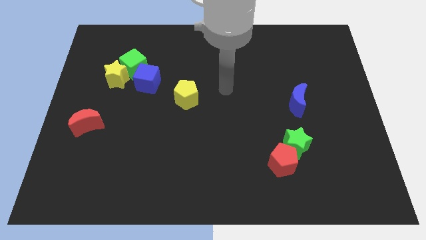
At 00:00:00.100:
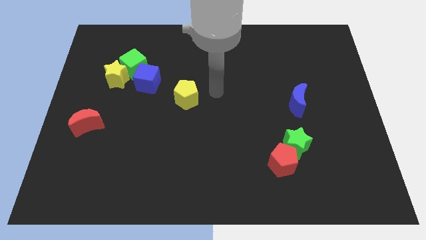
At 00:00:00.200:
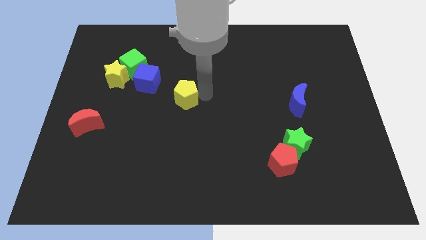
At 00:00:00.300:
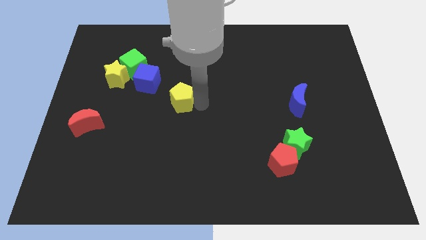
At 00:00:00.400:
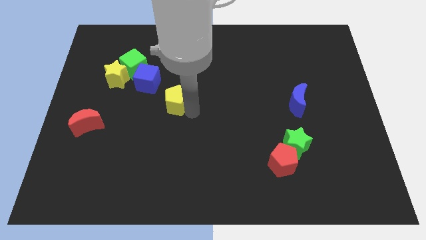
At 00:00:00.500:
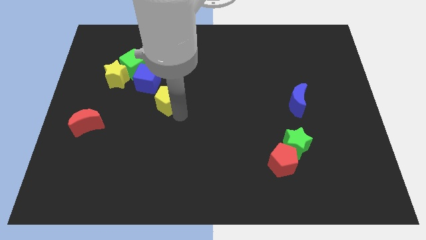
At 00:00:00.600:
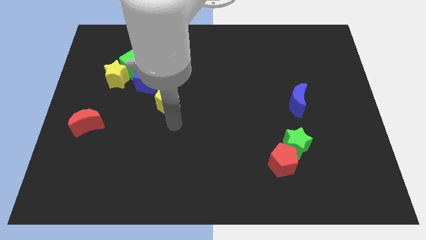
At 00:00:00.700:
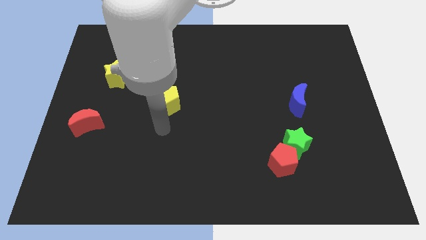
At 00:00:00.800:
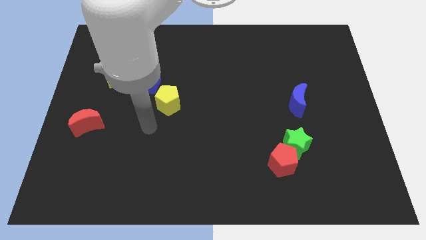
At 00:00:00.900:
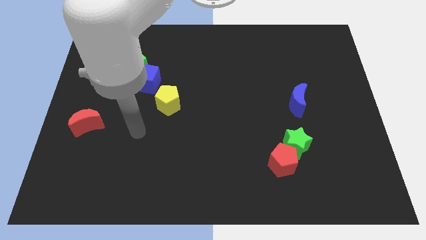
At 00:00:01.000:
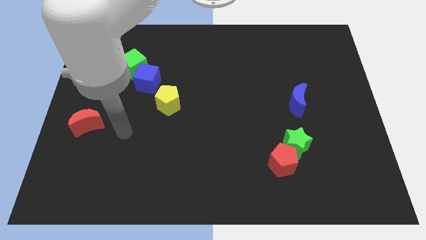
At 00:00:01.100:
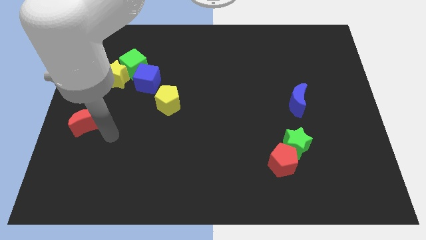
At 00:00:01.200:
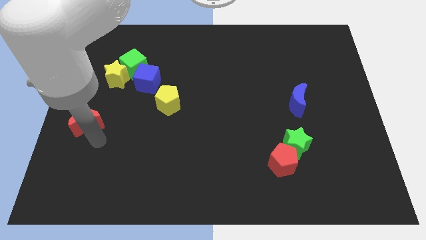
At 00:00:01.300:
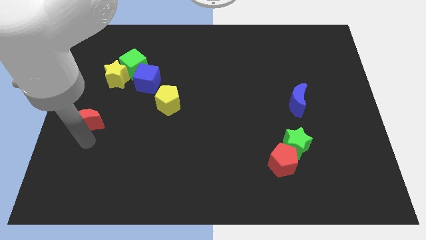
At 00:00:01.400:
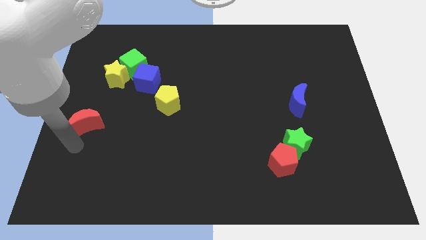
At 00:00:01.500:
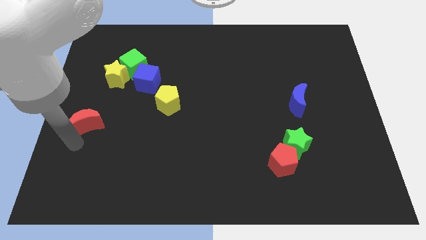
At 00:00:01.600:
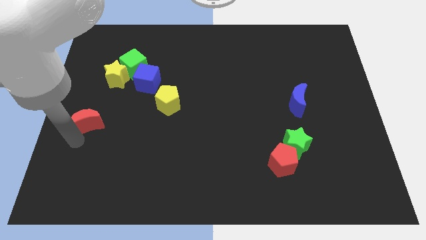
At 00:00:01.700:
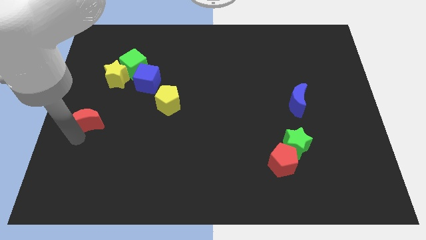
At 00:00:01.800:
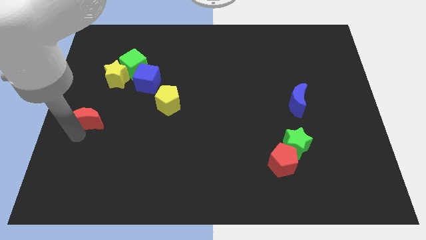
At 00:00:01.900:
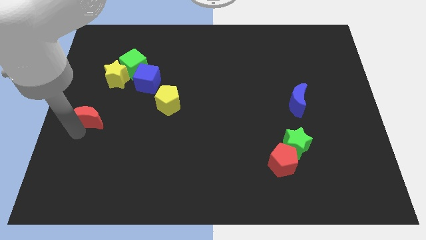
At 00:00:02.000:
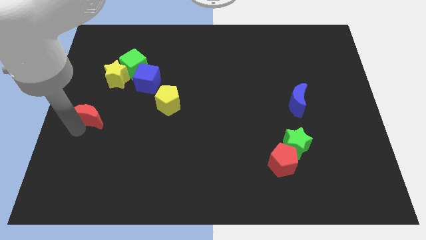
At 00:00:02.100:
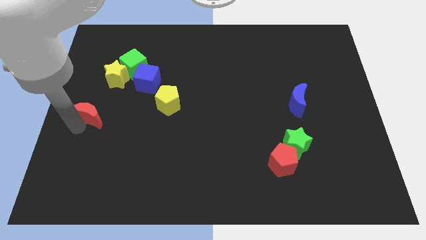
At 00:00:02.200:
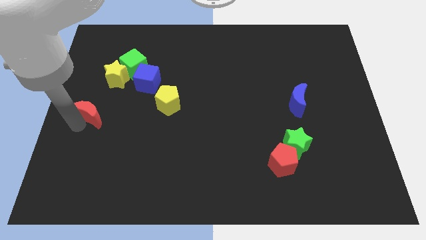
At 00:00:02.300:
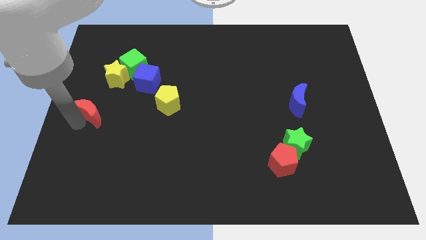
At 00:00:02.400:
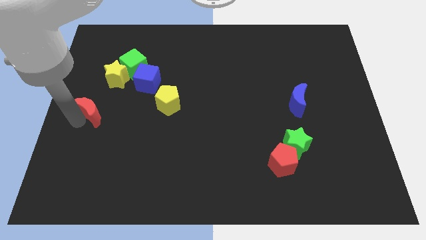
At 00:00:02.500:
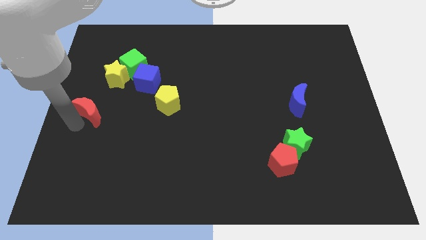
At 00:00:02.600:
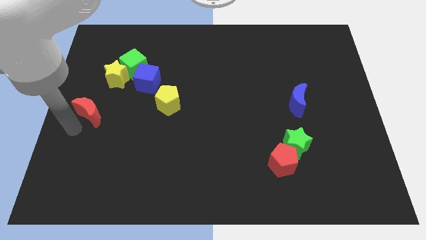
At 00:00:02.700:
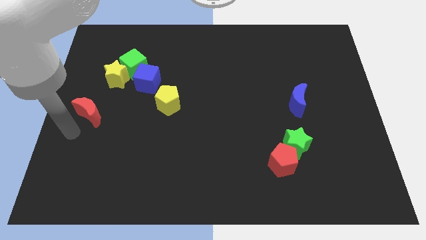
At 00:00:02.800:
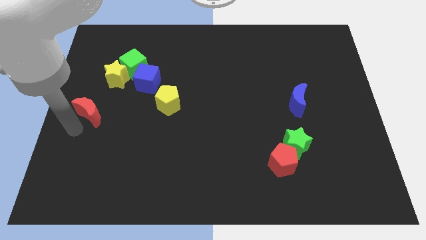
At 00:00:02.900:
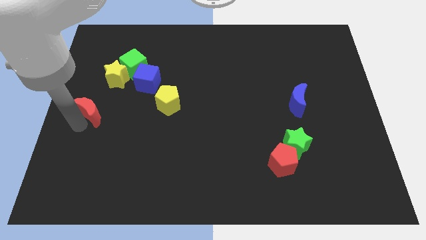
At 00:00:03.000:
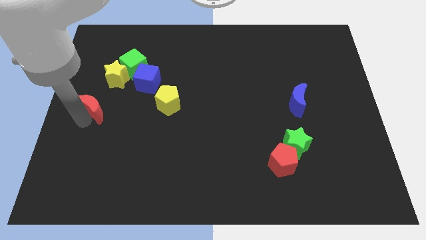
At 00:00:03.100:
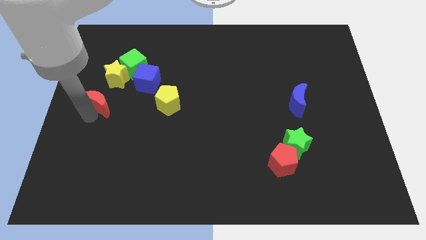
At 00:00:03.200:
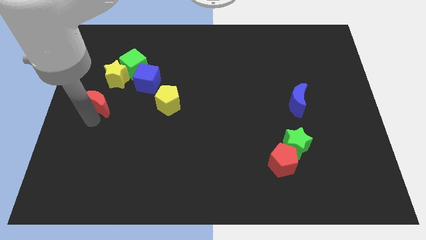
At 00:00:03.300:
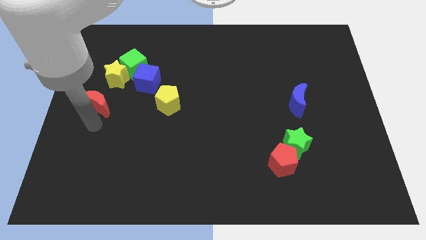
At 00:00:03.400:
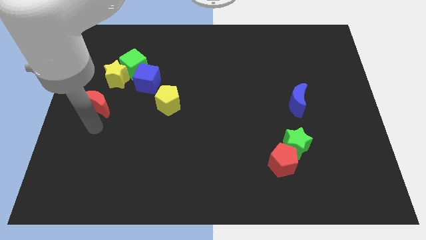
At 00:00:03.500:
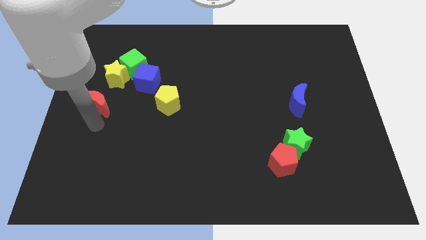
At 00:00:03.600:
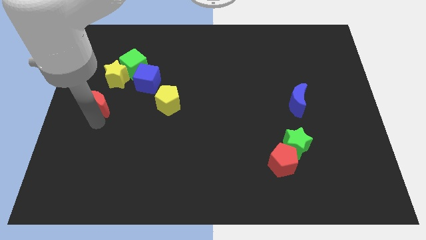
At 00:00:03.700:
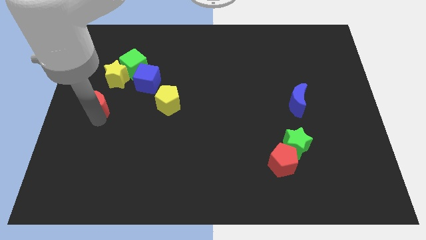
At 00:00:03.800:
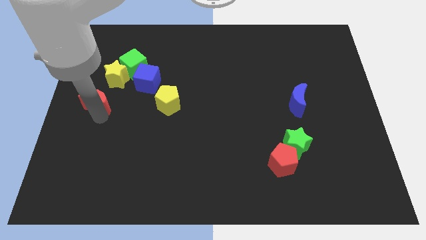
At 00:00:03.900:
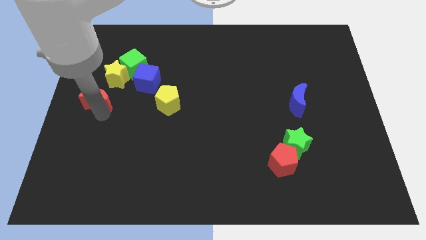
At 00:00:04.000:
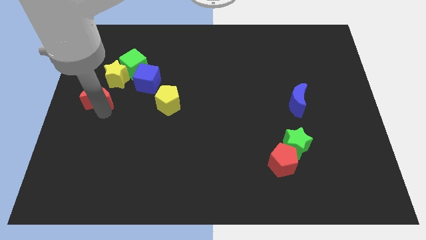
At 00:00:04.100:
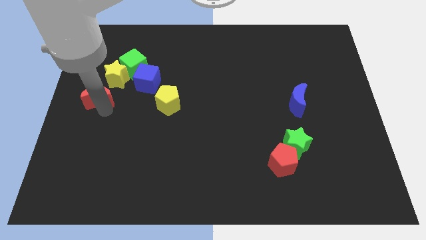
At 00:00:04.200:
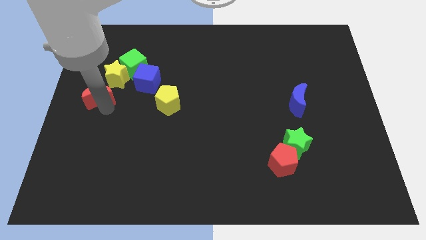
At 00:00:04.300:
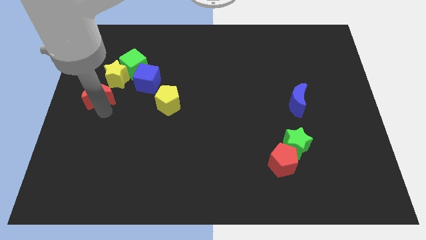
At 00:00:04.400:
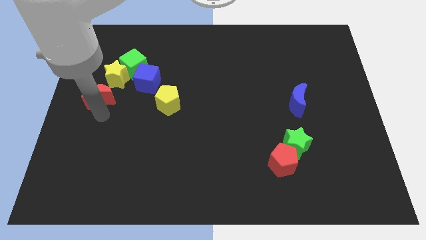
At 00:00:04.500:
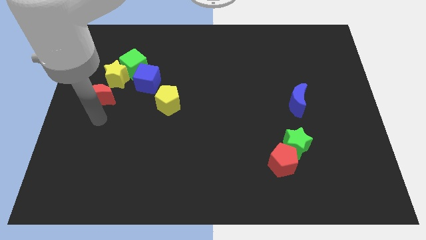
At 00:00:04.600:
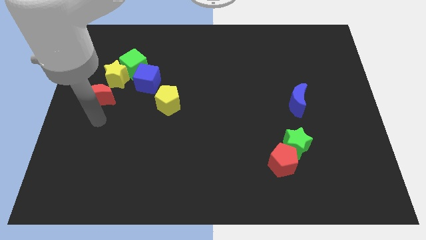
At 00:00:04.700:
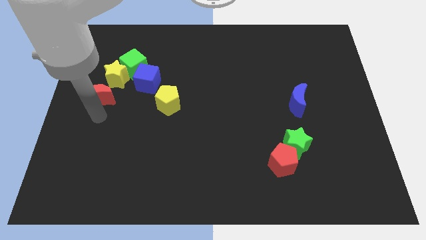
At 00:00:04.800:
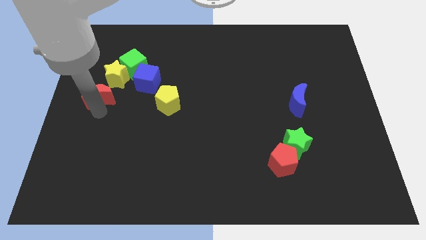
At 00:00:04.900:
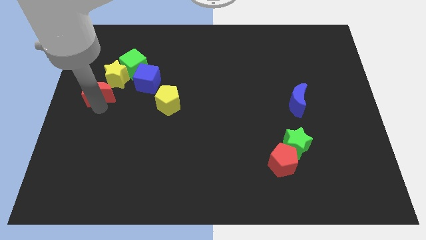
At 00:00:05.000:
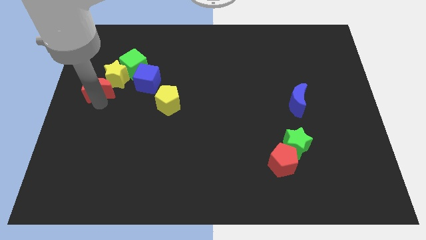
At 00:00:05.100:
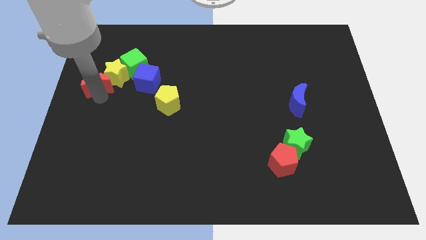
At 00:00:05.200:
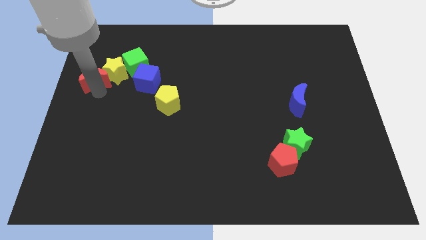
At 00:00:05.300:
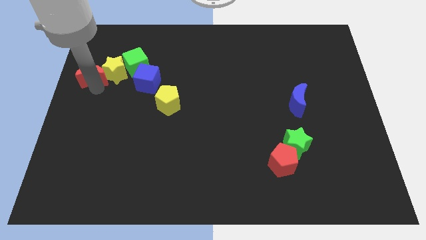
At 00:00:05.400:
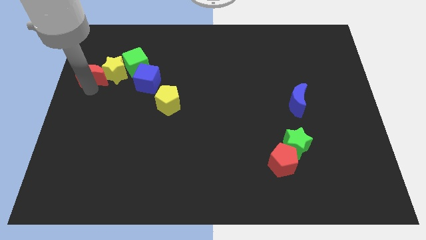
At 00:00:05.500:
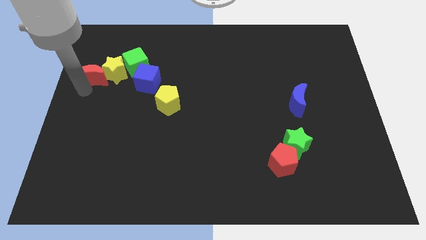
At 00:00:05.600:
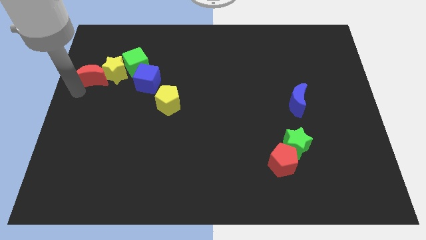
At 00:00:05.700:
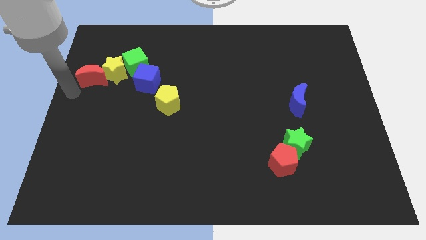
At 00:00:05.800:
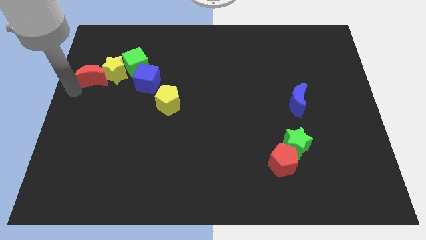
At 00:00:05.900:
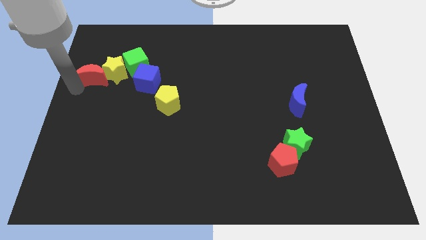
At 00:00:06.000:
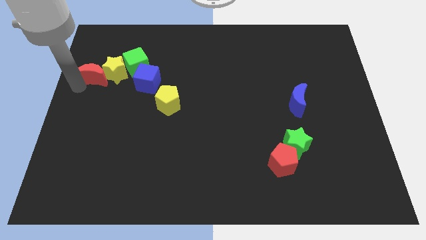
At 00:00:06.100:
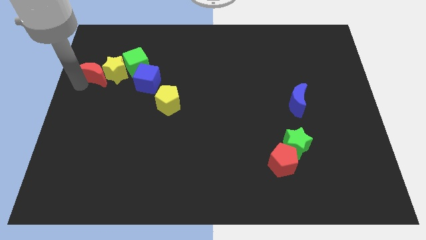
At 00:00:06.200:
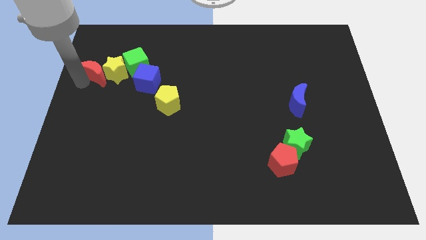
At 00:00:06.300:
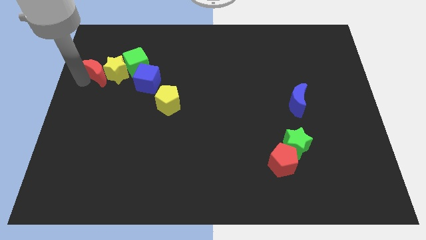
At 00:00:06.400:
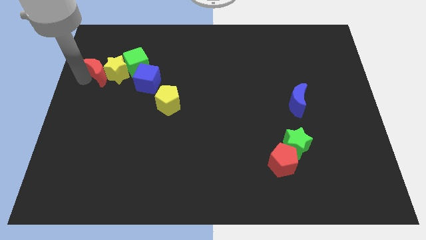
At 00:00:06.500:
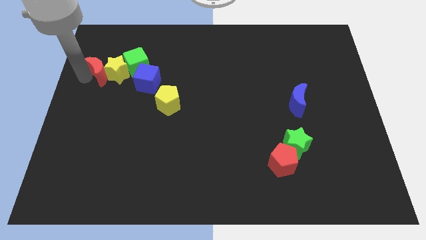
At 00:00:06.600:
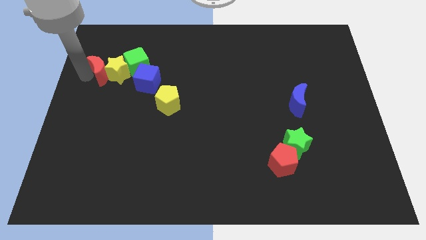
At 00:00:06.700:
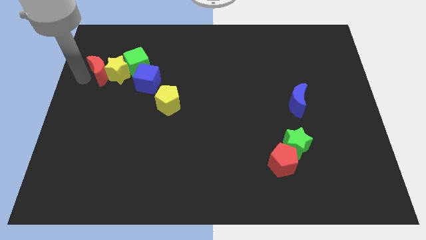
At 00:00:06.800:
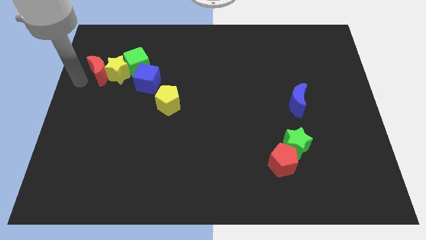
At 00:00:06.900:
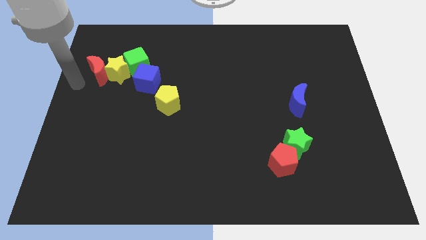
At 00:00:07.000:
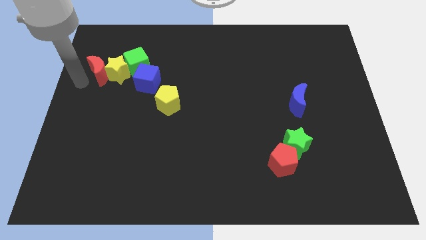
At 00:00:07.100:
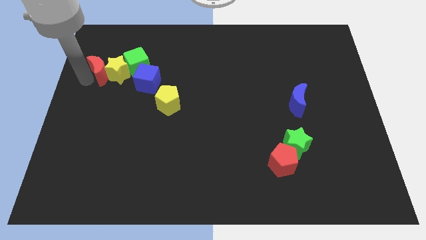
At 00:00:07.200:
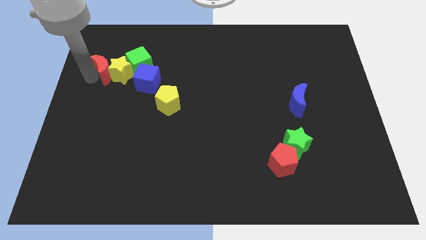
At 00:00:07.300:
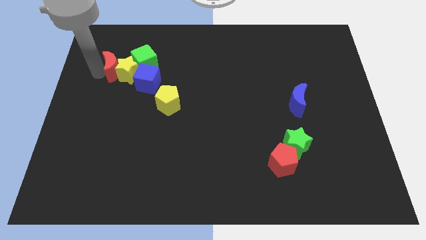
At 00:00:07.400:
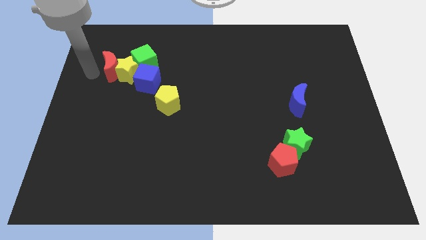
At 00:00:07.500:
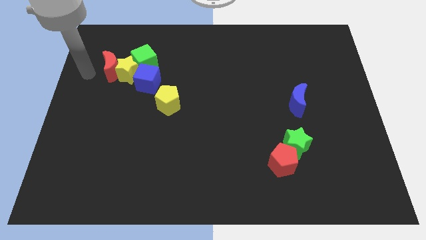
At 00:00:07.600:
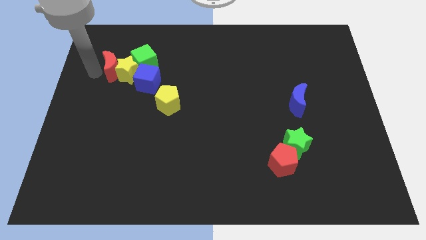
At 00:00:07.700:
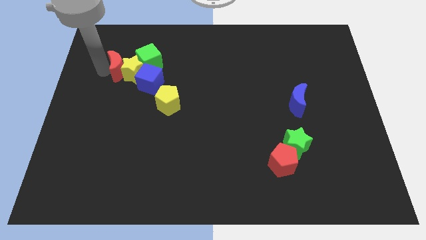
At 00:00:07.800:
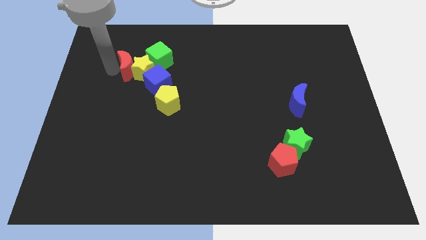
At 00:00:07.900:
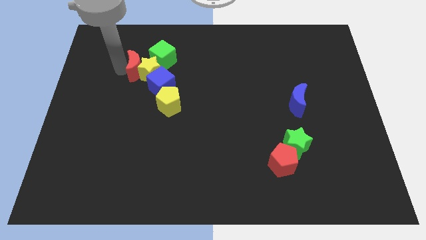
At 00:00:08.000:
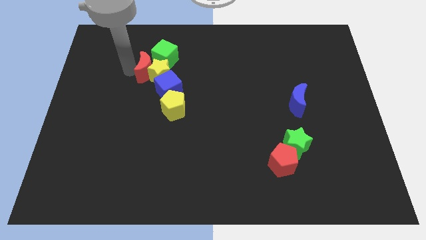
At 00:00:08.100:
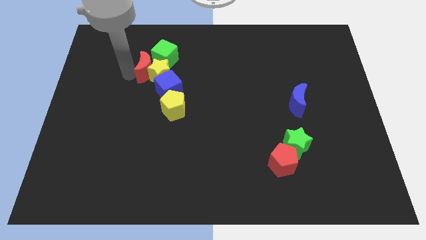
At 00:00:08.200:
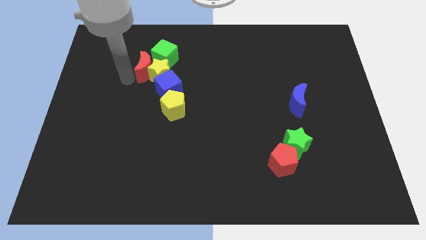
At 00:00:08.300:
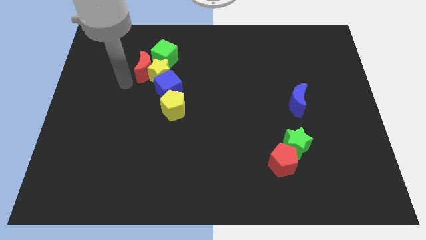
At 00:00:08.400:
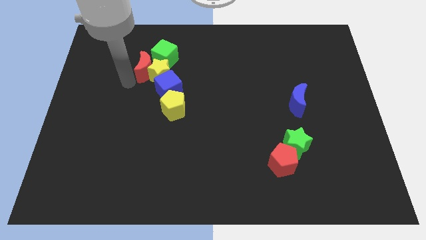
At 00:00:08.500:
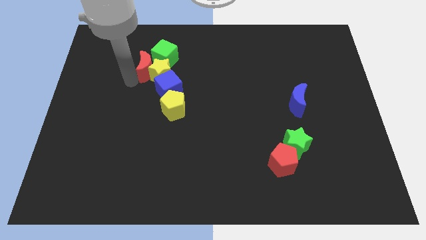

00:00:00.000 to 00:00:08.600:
push the red moon to the green cube
